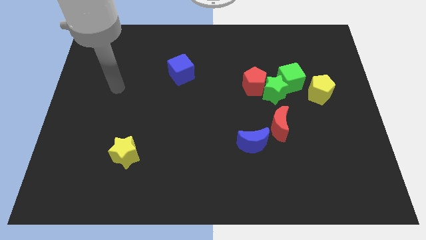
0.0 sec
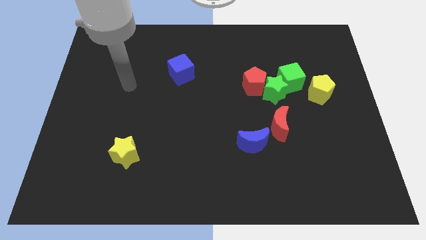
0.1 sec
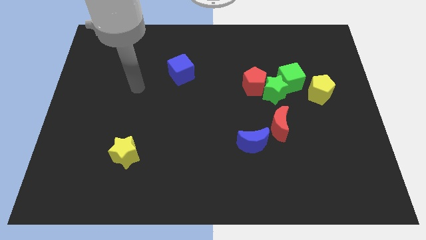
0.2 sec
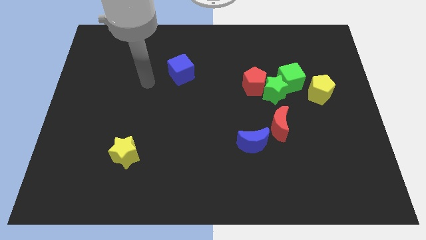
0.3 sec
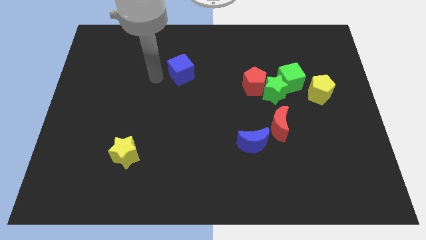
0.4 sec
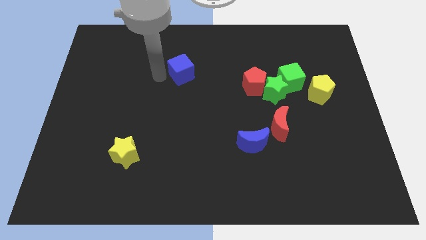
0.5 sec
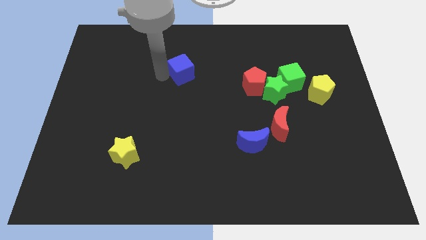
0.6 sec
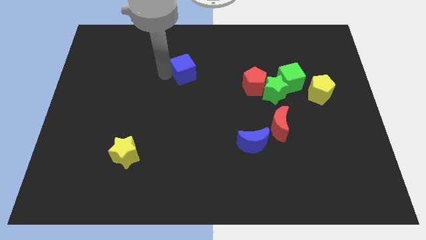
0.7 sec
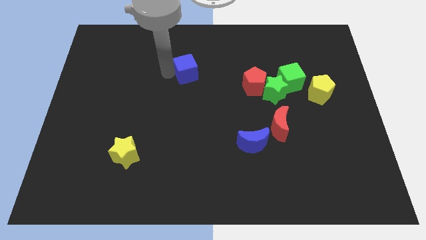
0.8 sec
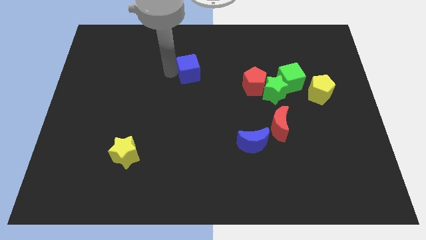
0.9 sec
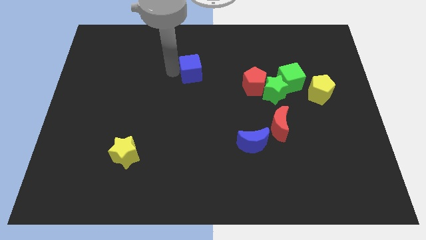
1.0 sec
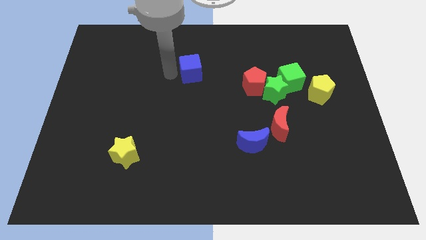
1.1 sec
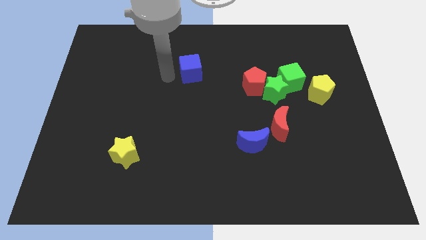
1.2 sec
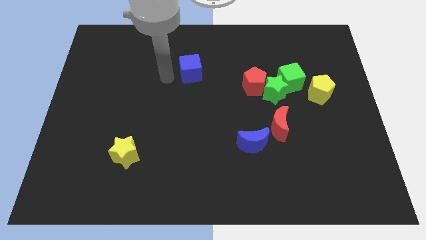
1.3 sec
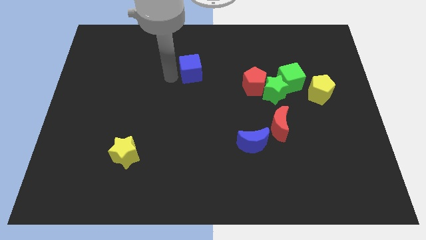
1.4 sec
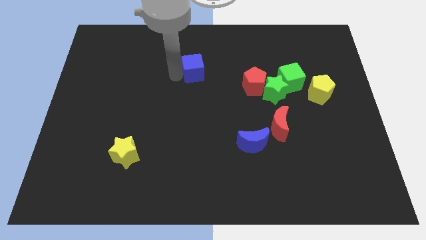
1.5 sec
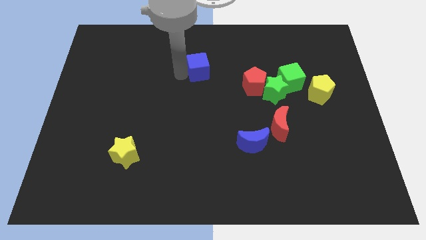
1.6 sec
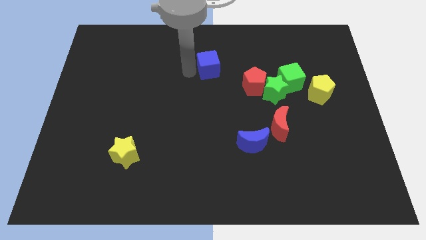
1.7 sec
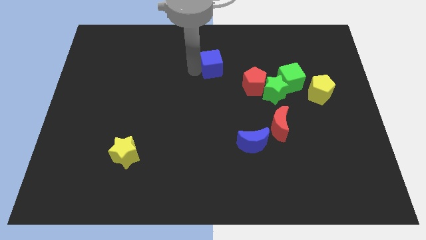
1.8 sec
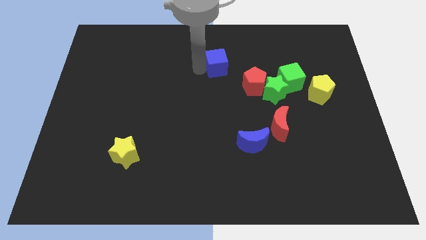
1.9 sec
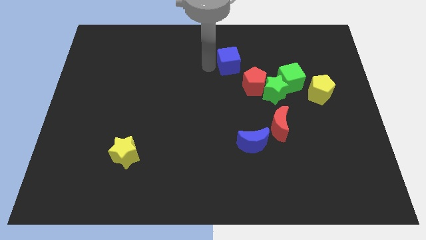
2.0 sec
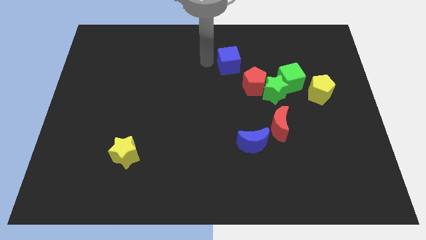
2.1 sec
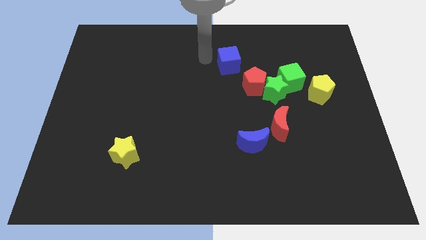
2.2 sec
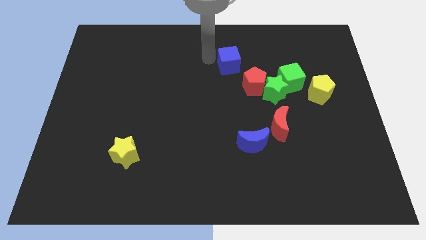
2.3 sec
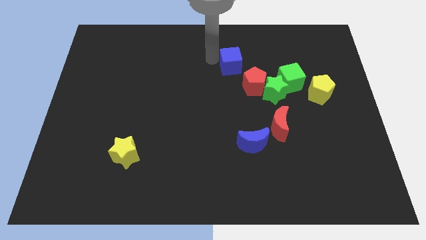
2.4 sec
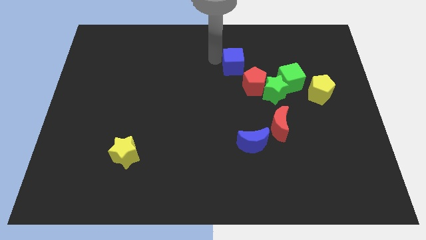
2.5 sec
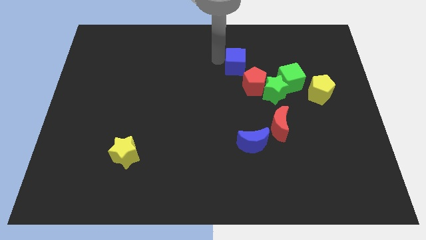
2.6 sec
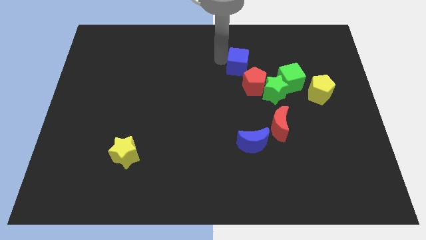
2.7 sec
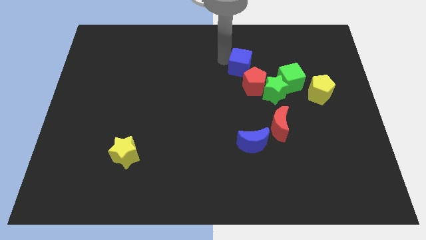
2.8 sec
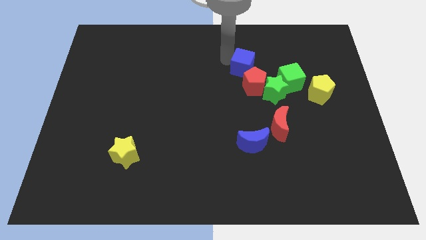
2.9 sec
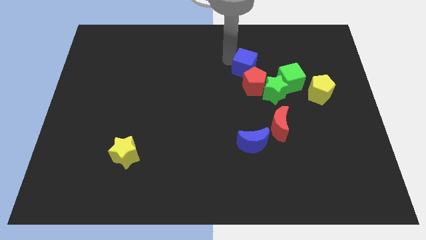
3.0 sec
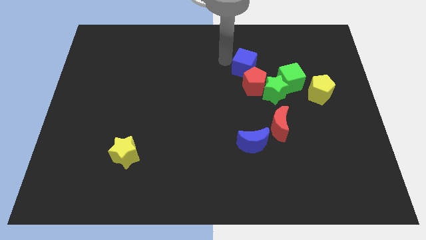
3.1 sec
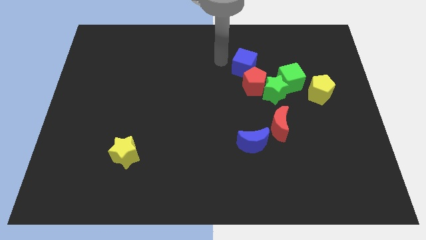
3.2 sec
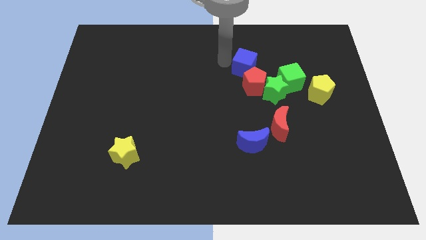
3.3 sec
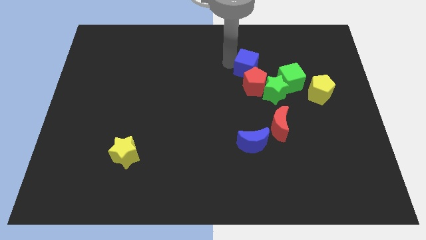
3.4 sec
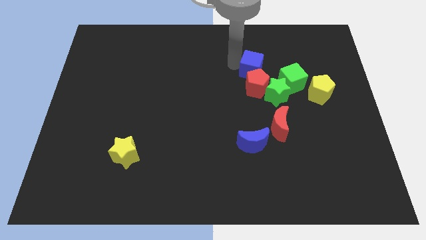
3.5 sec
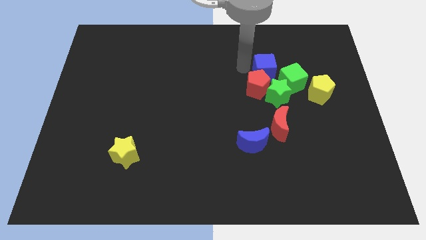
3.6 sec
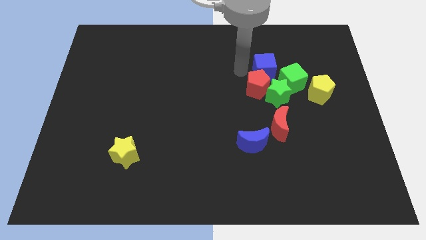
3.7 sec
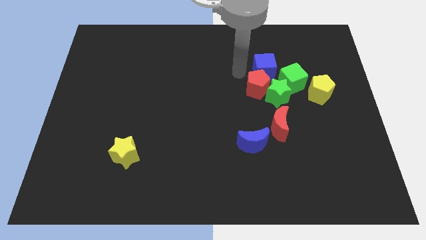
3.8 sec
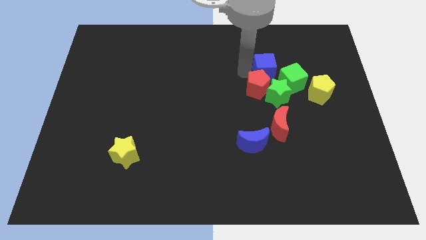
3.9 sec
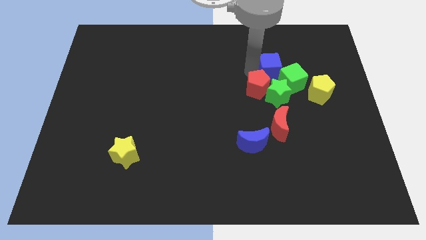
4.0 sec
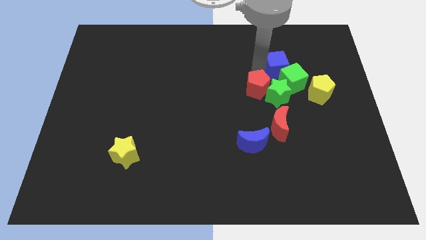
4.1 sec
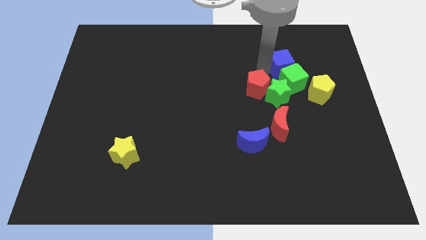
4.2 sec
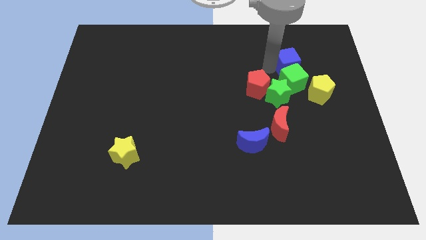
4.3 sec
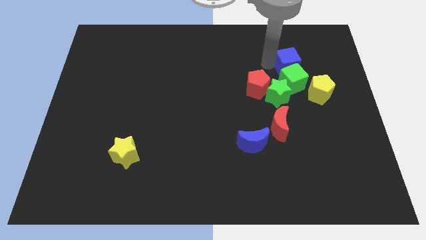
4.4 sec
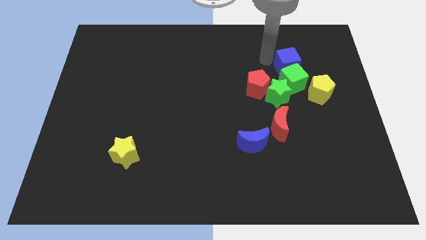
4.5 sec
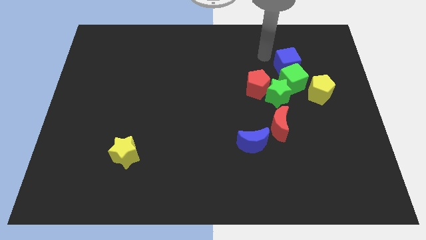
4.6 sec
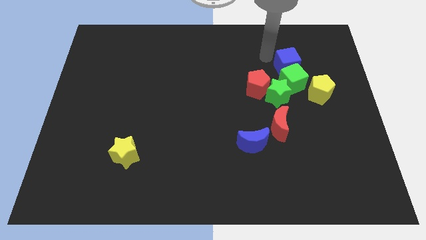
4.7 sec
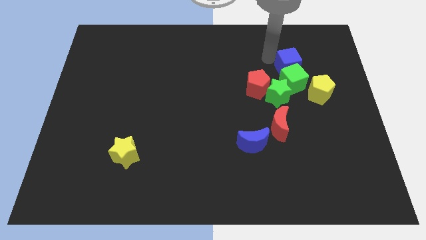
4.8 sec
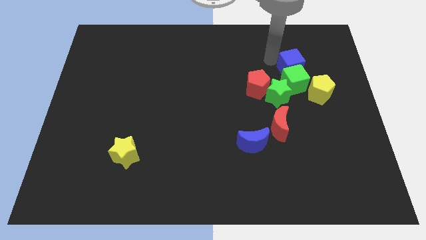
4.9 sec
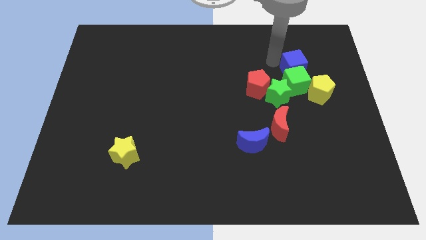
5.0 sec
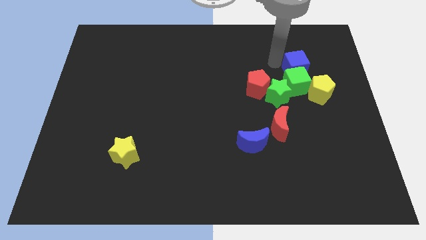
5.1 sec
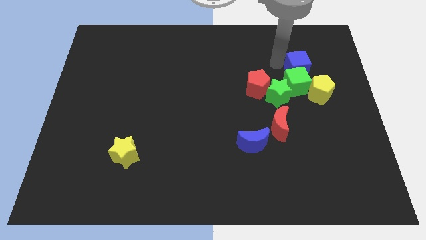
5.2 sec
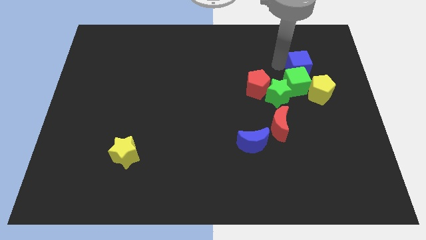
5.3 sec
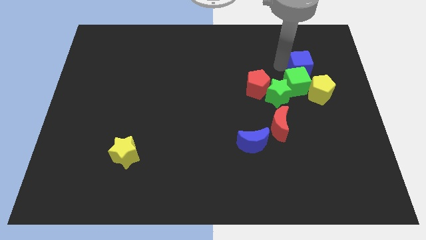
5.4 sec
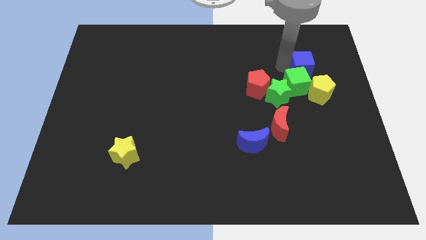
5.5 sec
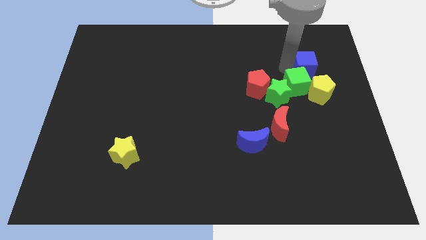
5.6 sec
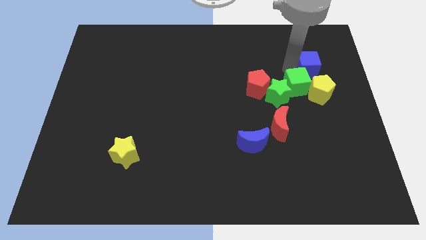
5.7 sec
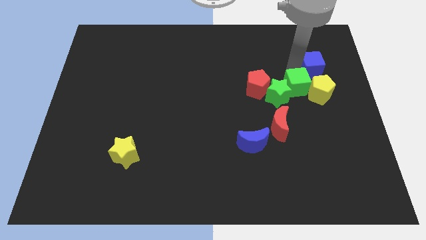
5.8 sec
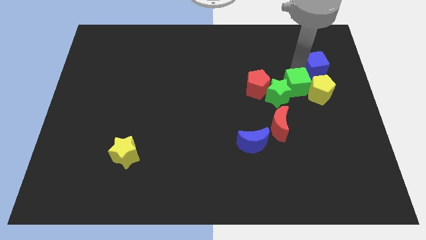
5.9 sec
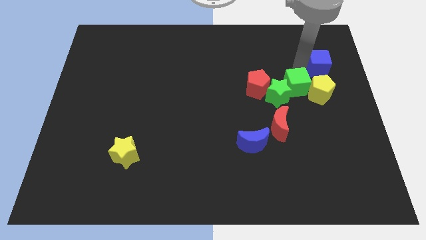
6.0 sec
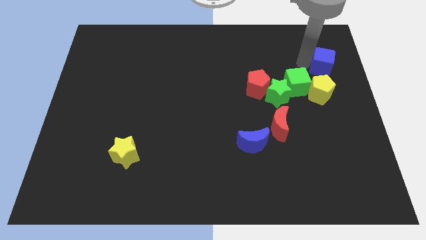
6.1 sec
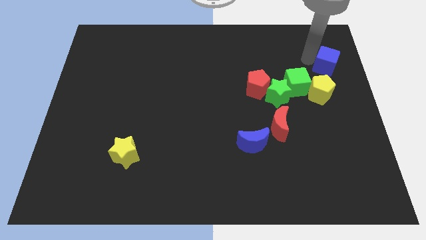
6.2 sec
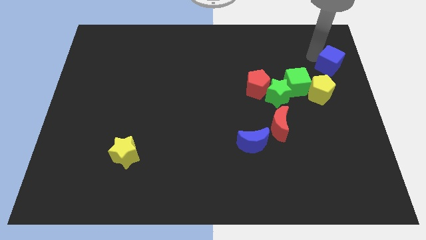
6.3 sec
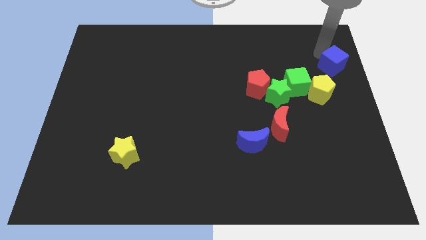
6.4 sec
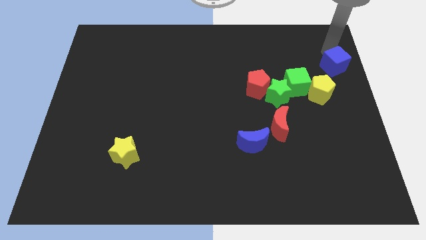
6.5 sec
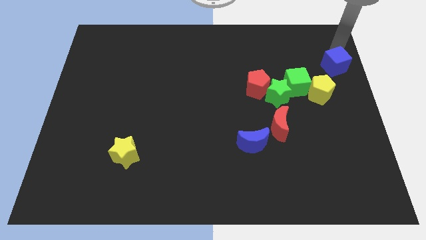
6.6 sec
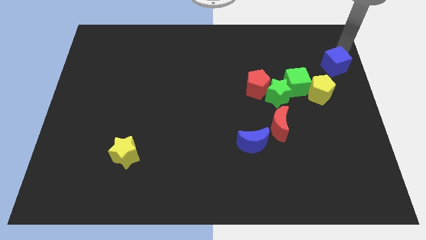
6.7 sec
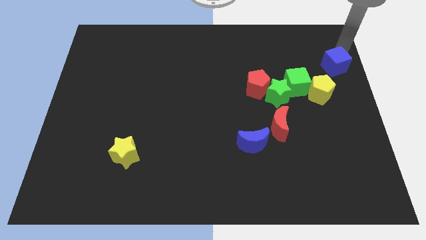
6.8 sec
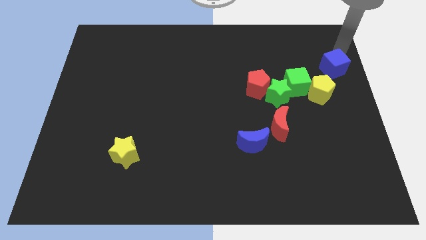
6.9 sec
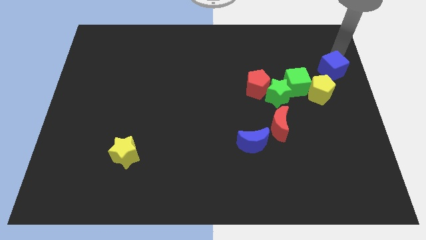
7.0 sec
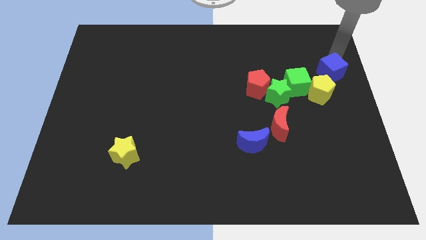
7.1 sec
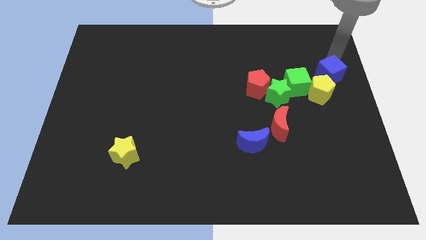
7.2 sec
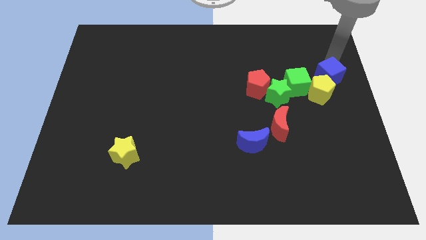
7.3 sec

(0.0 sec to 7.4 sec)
move the blue cube next to the yellow pentagon
